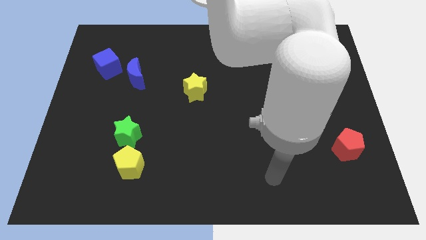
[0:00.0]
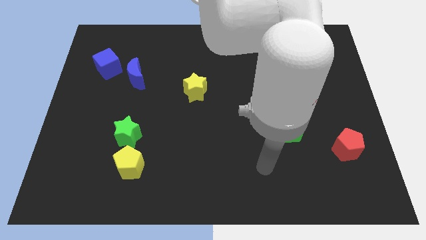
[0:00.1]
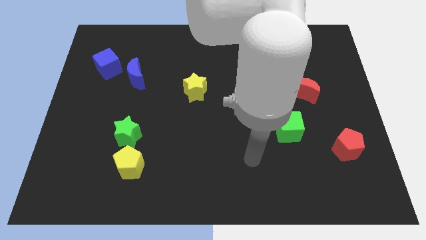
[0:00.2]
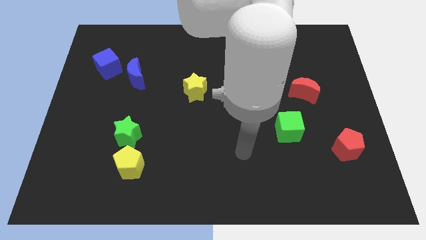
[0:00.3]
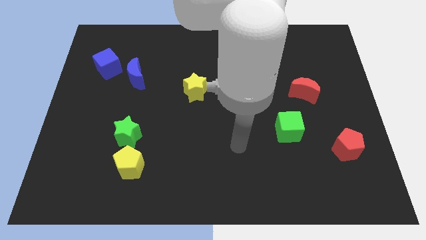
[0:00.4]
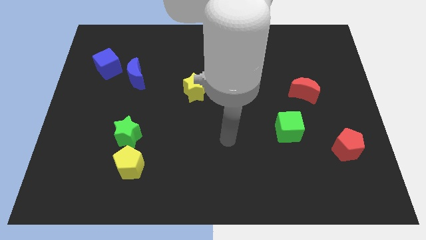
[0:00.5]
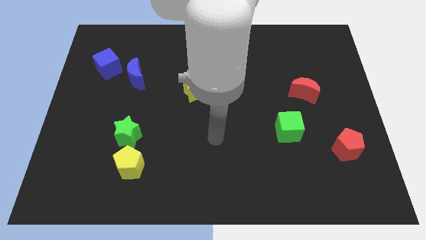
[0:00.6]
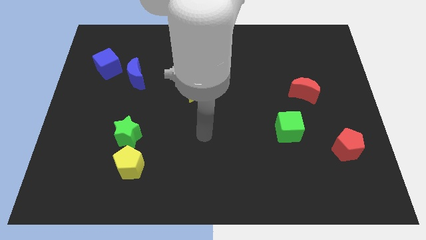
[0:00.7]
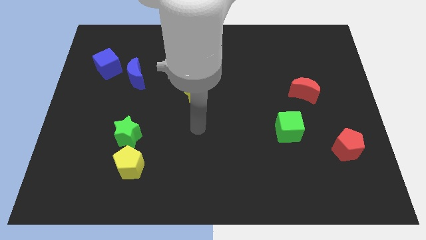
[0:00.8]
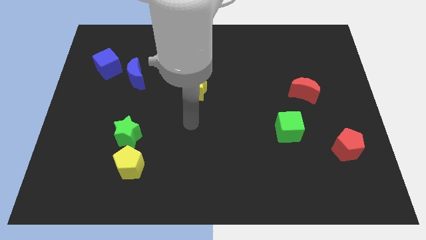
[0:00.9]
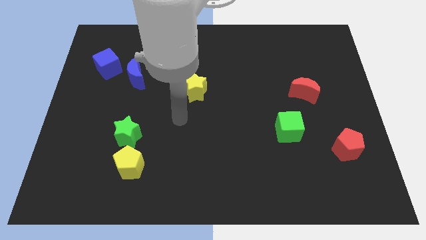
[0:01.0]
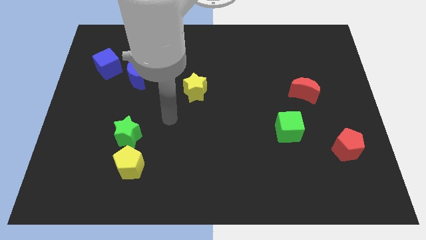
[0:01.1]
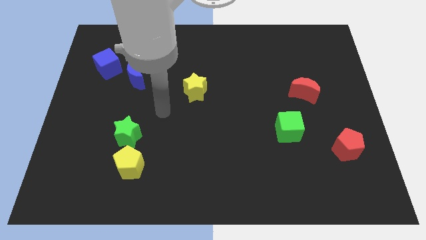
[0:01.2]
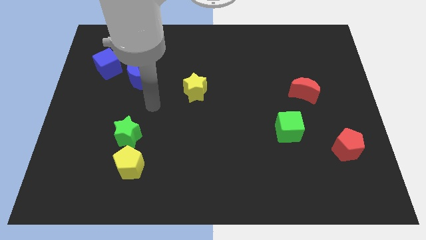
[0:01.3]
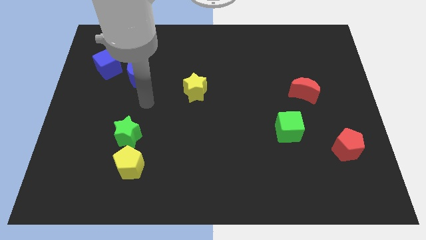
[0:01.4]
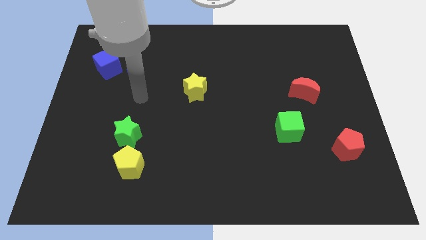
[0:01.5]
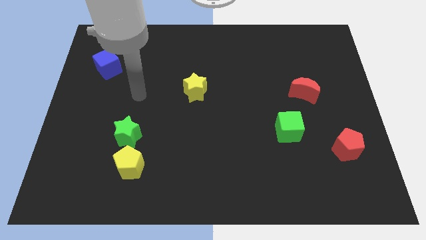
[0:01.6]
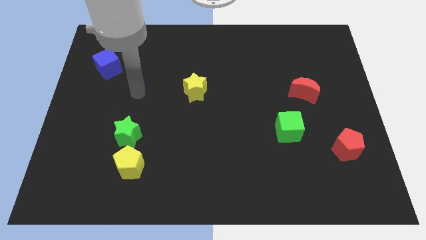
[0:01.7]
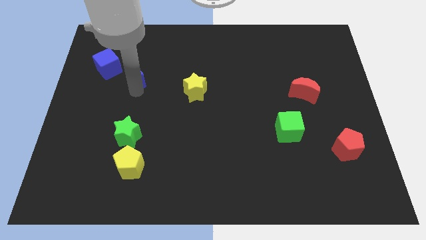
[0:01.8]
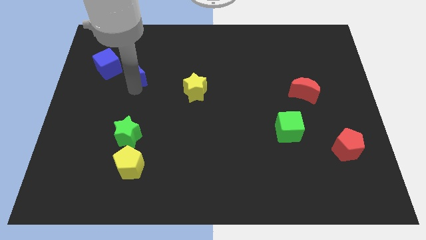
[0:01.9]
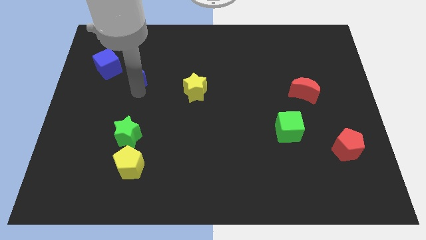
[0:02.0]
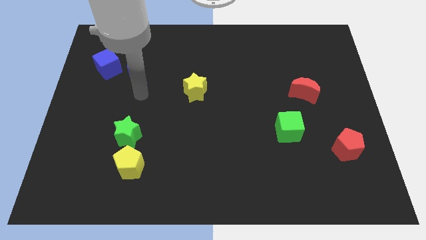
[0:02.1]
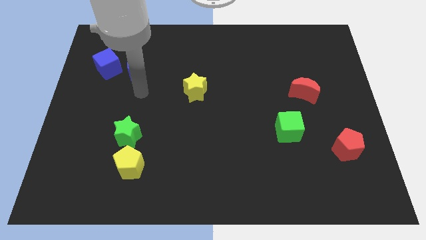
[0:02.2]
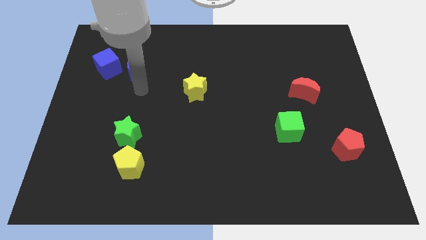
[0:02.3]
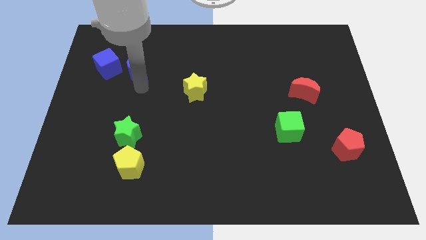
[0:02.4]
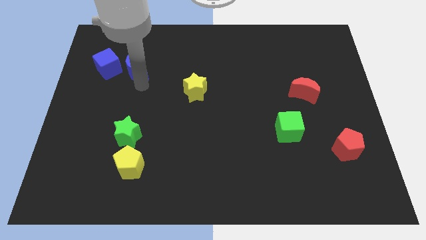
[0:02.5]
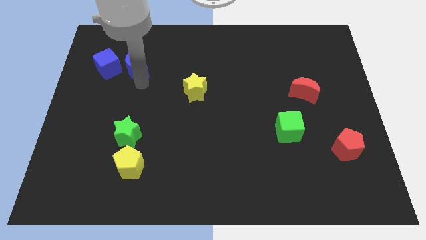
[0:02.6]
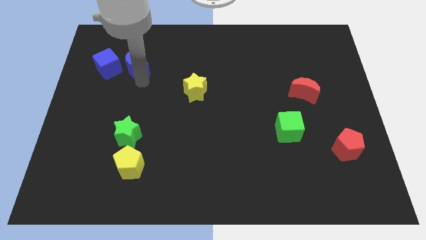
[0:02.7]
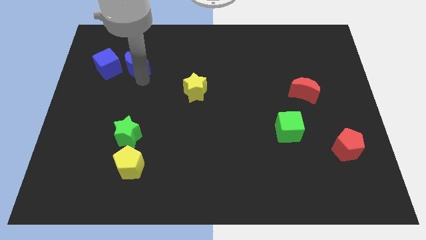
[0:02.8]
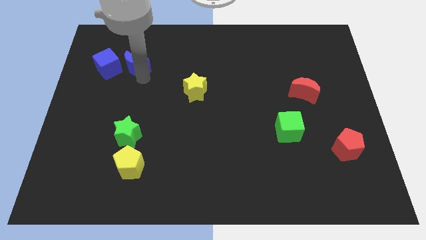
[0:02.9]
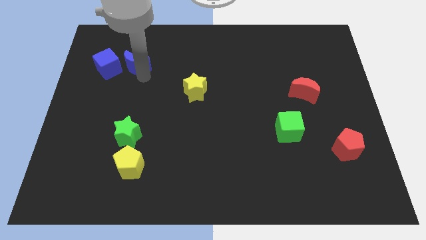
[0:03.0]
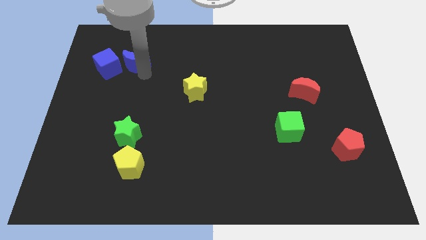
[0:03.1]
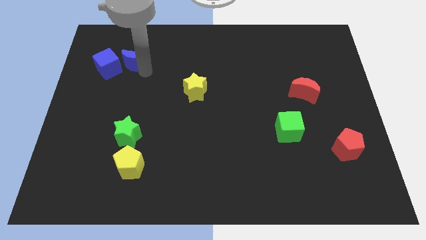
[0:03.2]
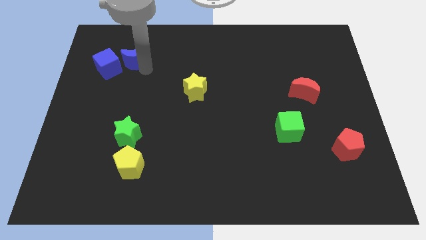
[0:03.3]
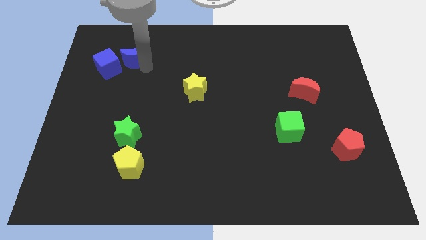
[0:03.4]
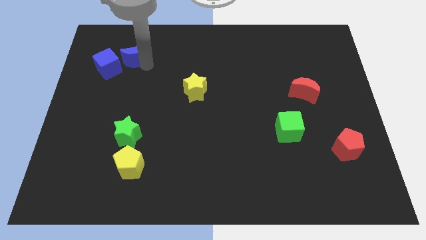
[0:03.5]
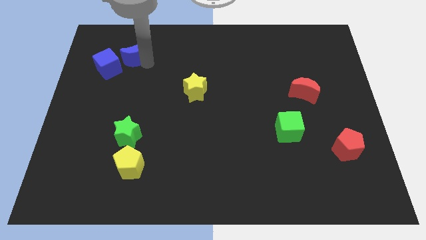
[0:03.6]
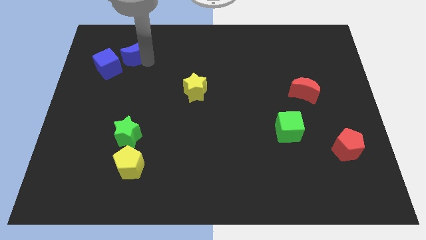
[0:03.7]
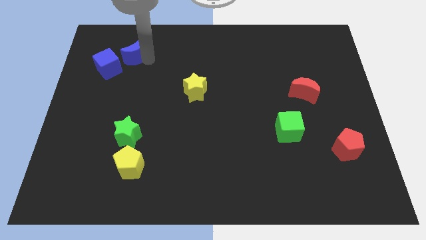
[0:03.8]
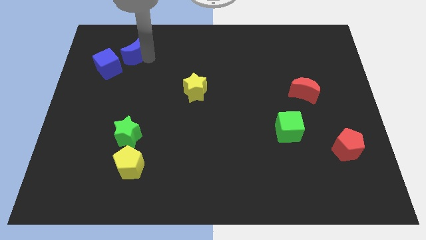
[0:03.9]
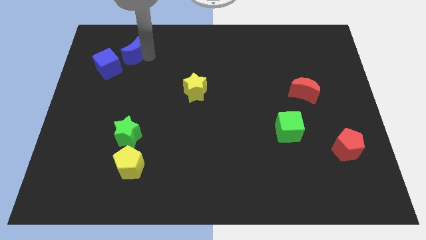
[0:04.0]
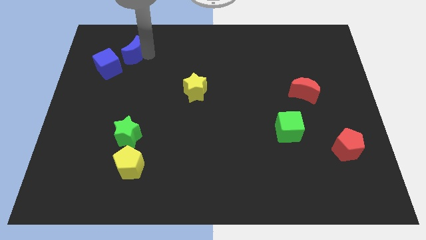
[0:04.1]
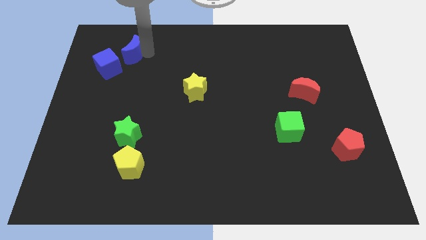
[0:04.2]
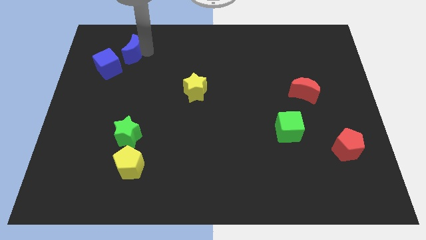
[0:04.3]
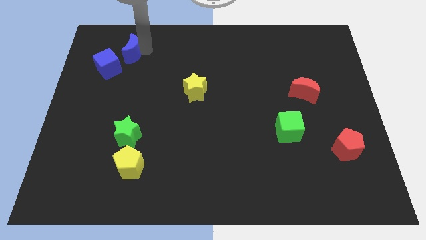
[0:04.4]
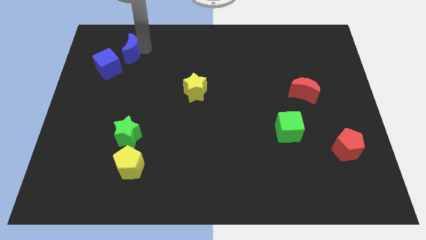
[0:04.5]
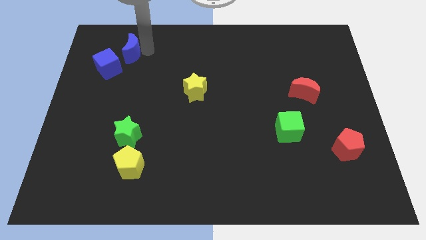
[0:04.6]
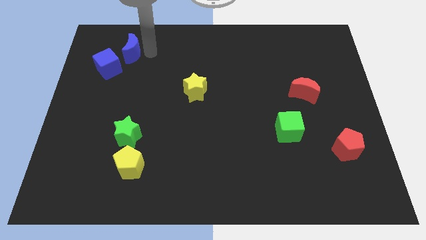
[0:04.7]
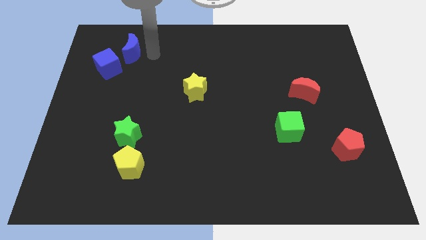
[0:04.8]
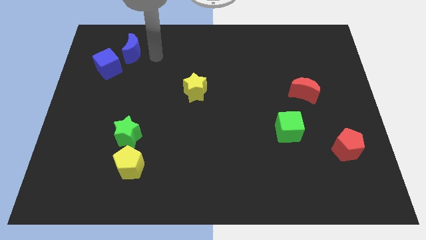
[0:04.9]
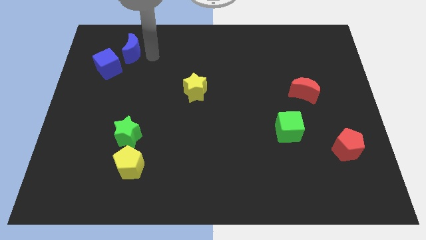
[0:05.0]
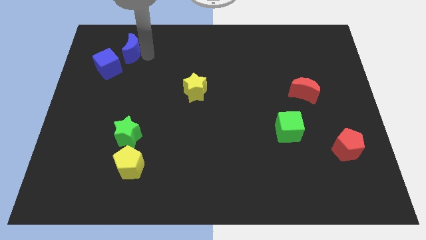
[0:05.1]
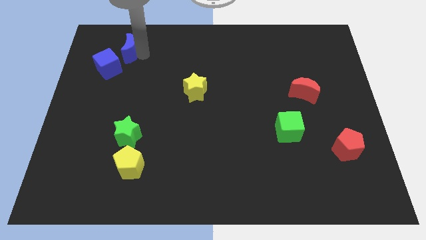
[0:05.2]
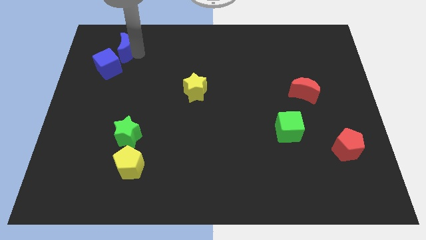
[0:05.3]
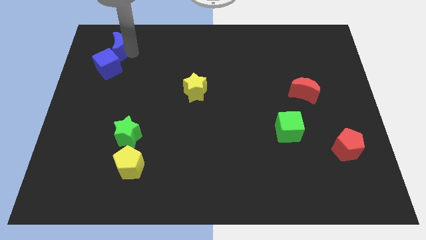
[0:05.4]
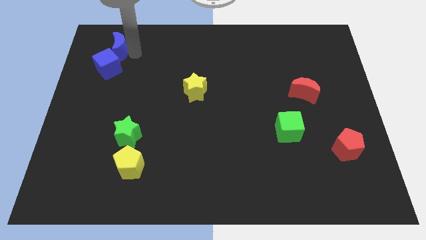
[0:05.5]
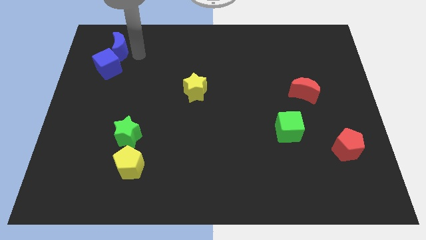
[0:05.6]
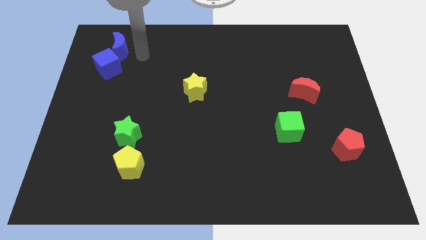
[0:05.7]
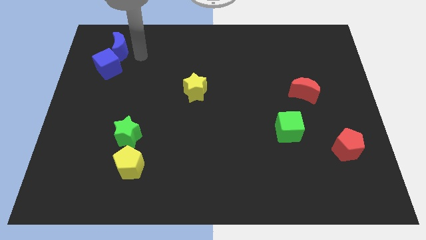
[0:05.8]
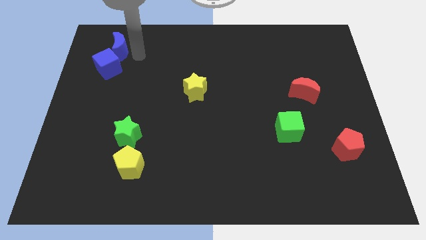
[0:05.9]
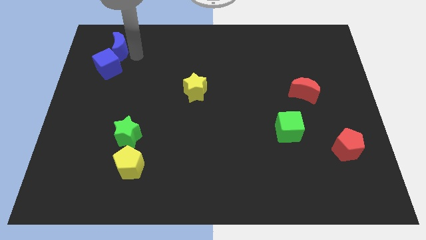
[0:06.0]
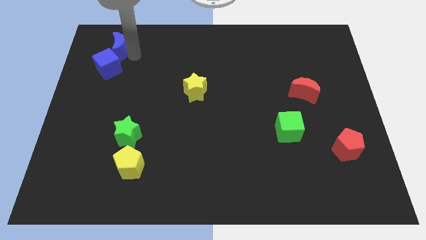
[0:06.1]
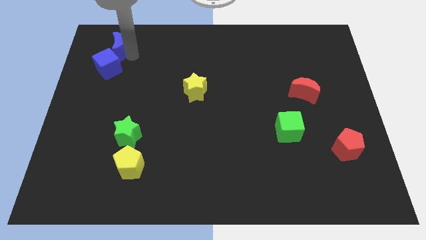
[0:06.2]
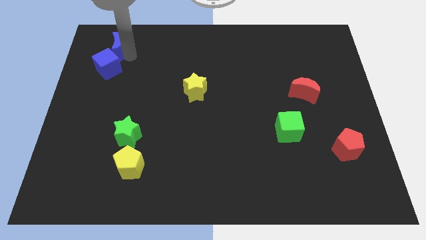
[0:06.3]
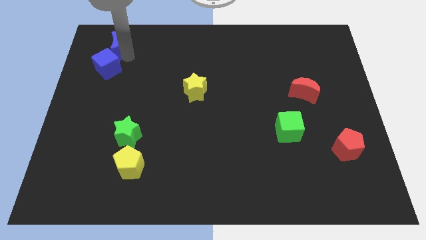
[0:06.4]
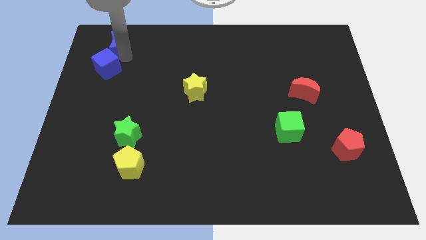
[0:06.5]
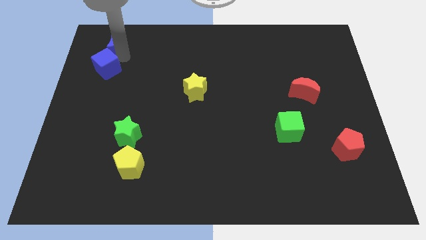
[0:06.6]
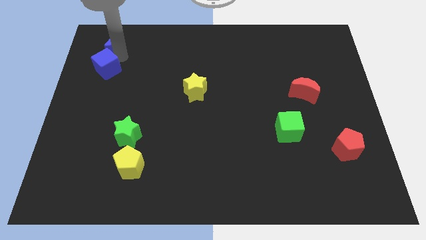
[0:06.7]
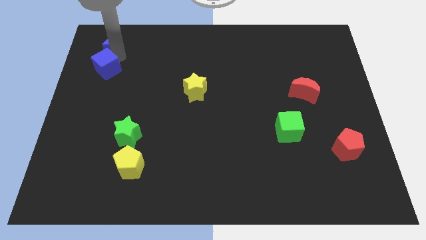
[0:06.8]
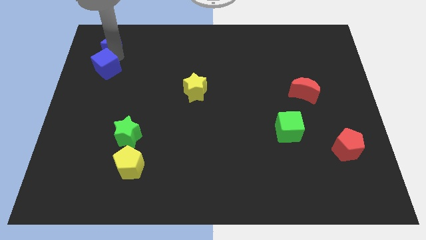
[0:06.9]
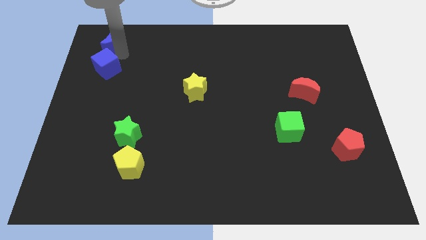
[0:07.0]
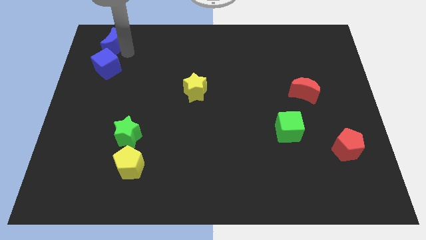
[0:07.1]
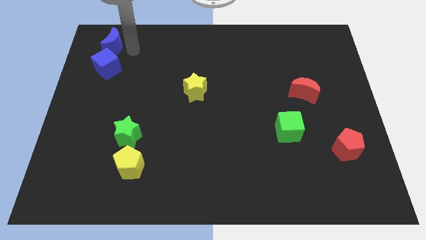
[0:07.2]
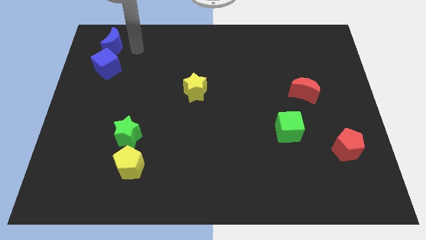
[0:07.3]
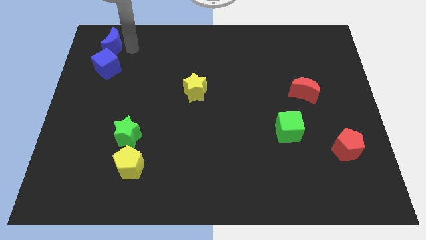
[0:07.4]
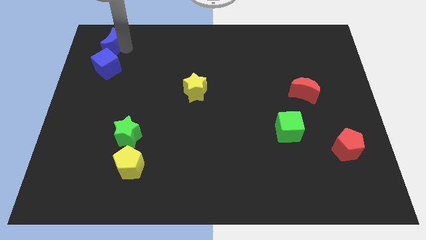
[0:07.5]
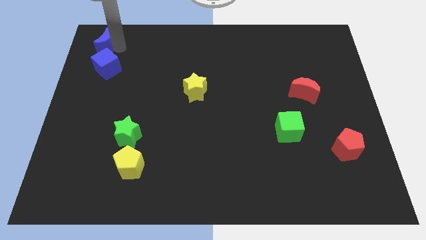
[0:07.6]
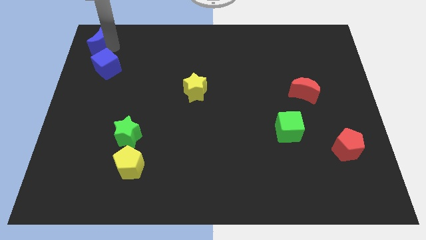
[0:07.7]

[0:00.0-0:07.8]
move the blue moon to the top left

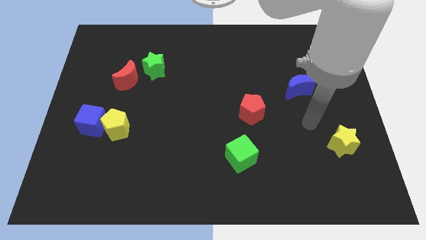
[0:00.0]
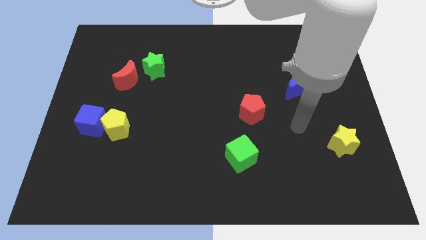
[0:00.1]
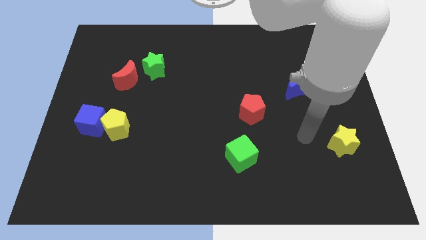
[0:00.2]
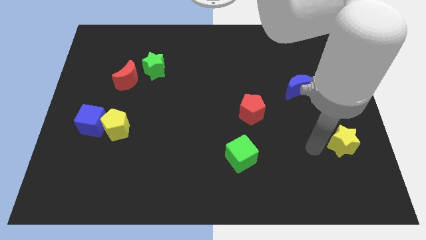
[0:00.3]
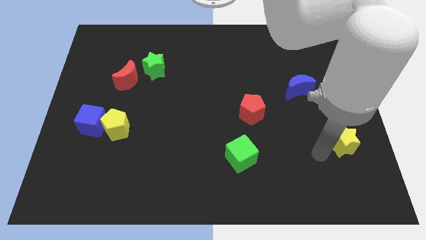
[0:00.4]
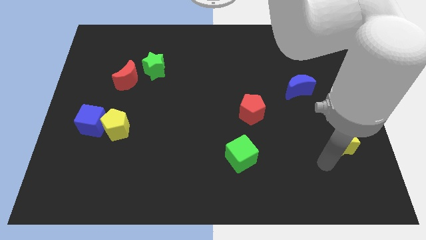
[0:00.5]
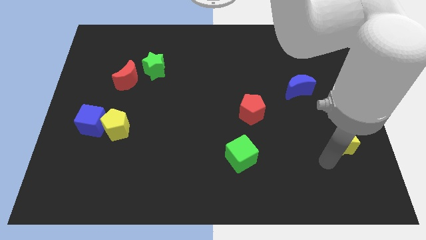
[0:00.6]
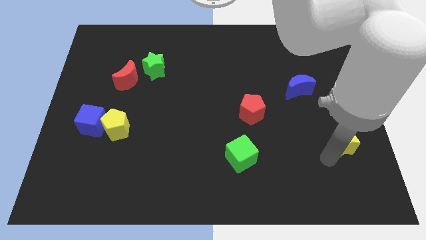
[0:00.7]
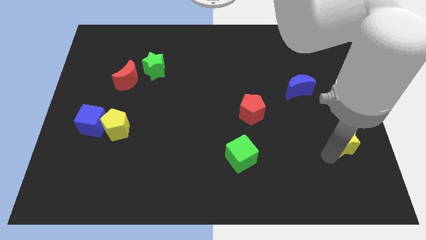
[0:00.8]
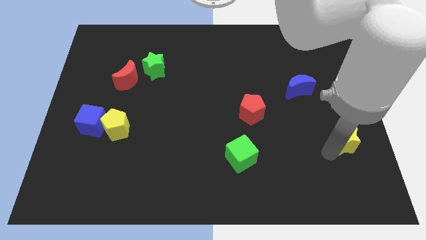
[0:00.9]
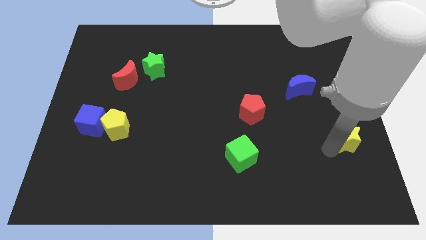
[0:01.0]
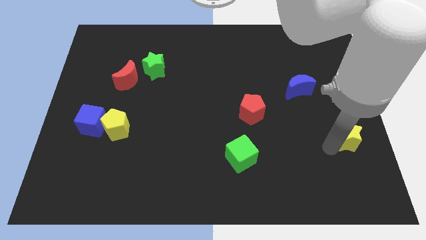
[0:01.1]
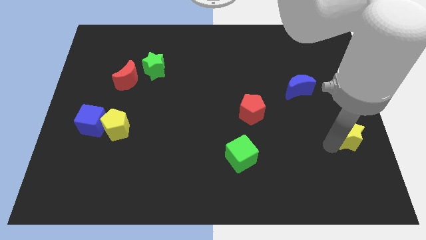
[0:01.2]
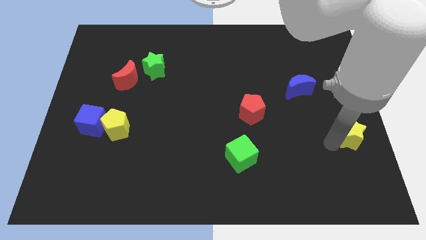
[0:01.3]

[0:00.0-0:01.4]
slide the yellow star to the center right
